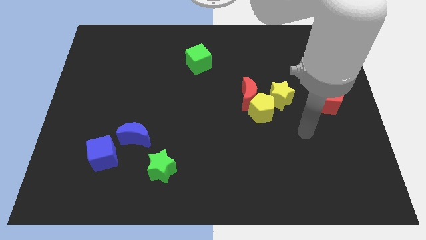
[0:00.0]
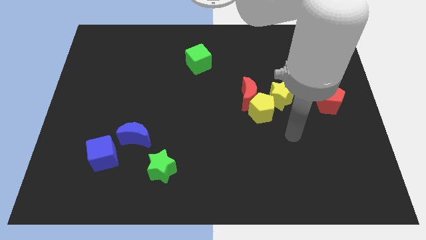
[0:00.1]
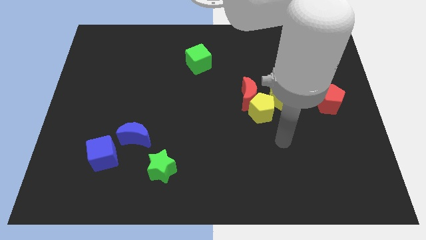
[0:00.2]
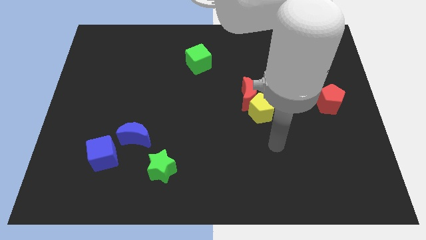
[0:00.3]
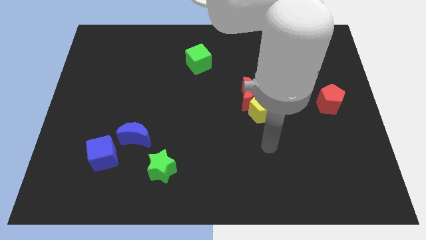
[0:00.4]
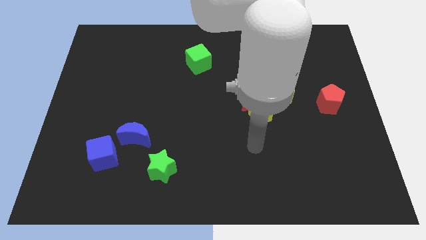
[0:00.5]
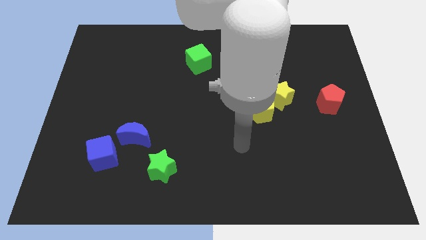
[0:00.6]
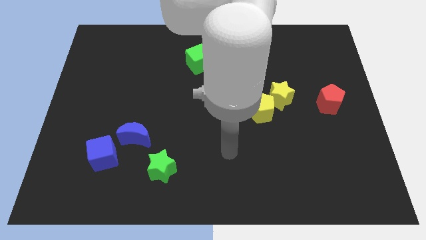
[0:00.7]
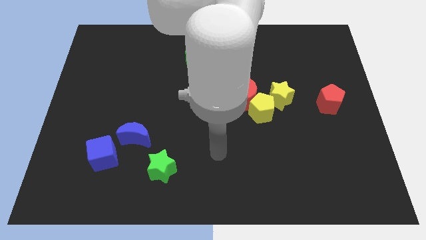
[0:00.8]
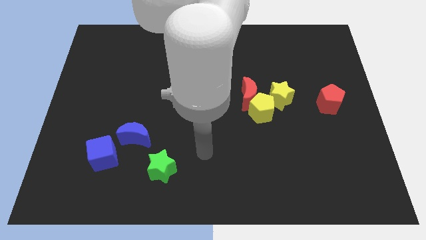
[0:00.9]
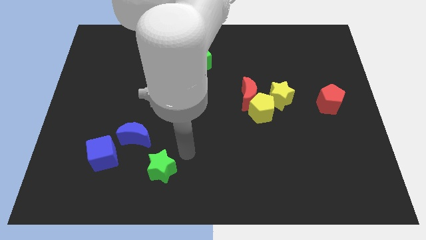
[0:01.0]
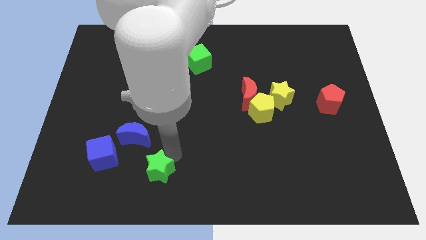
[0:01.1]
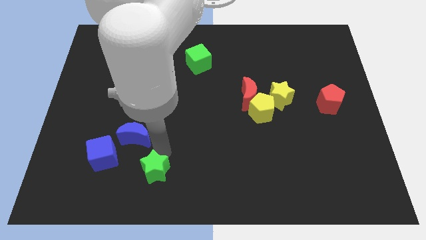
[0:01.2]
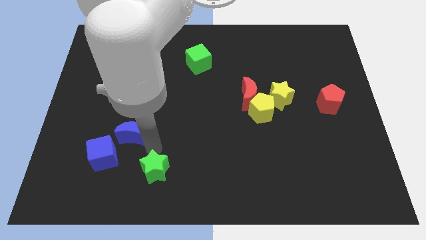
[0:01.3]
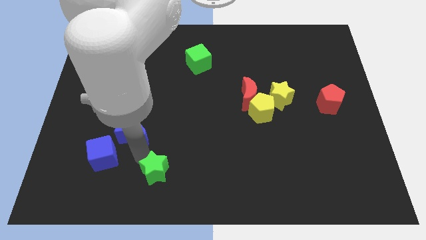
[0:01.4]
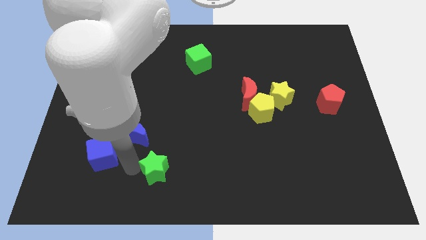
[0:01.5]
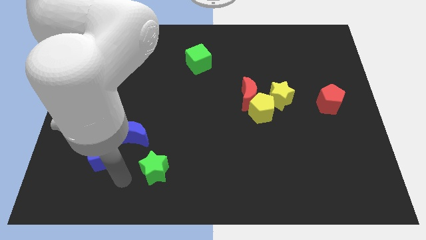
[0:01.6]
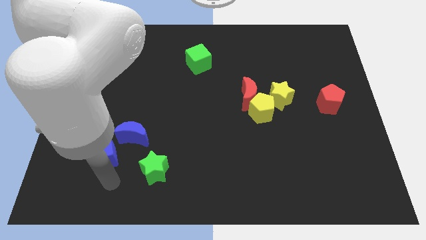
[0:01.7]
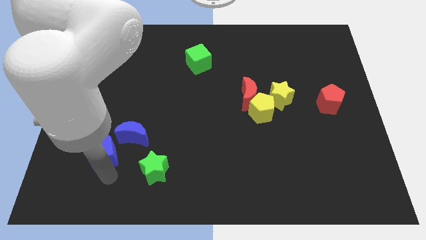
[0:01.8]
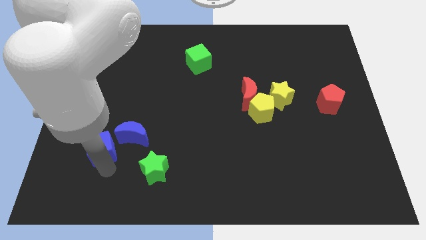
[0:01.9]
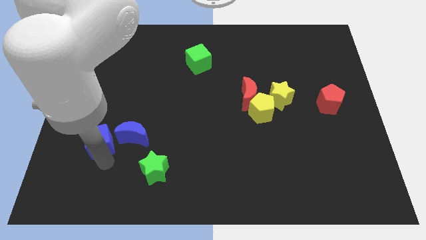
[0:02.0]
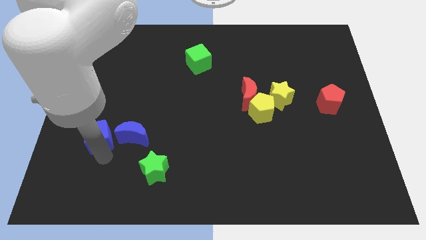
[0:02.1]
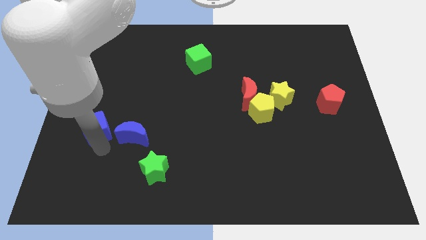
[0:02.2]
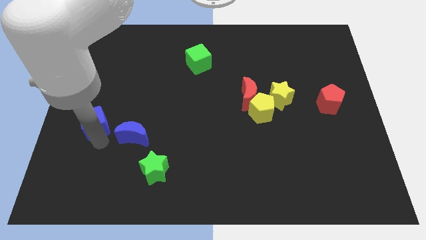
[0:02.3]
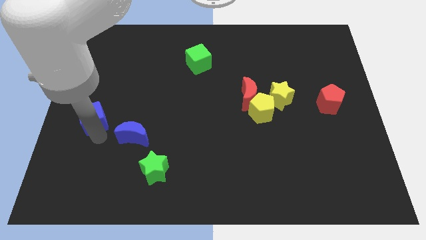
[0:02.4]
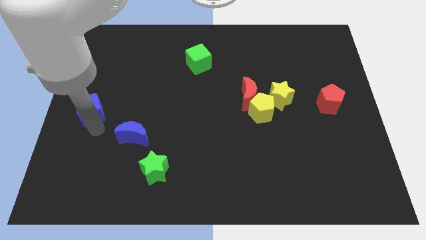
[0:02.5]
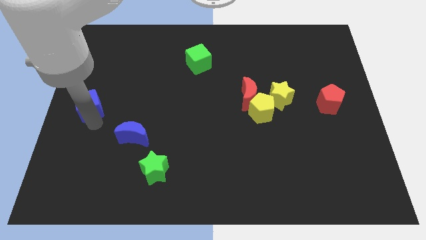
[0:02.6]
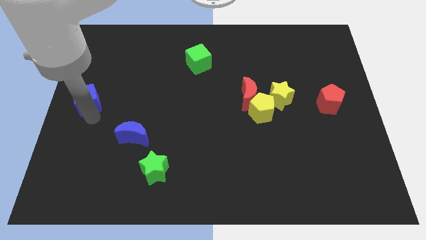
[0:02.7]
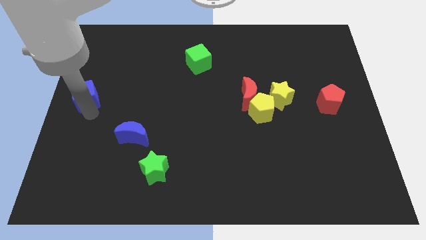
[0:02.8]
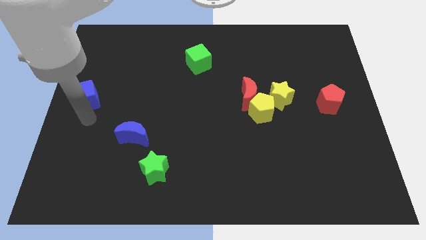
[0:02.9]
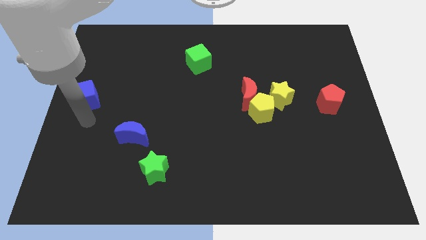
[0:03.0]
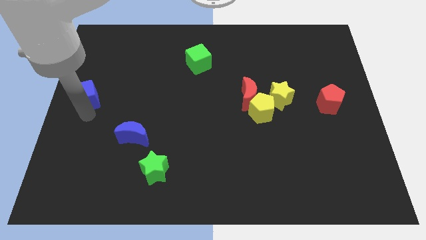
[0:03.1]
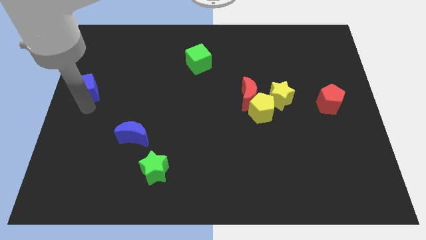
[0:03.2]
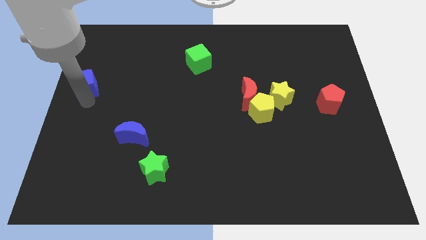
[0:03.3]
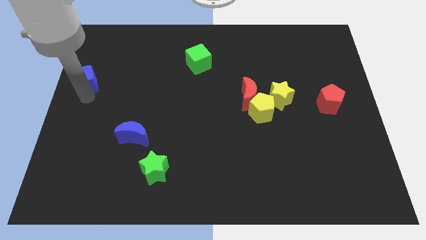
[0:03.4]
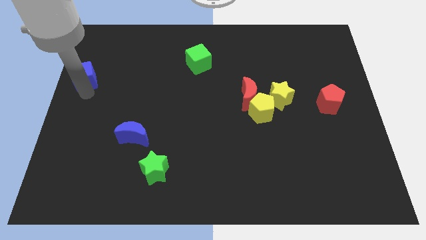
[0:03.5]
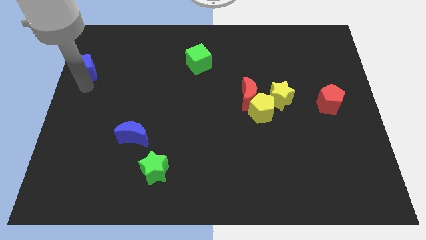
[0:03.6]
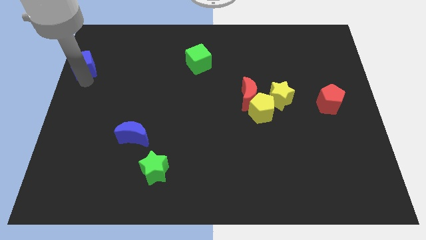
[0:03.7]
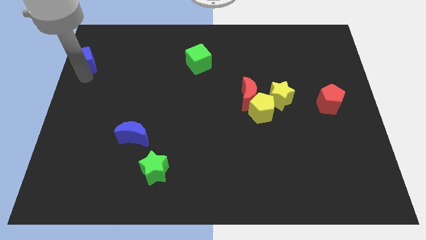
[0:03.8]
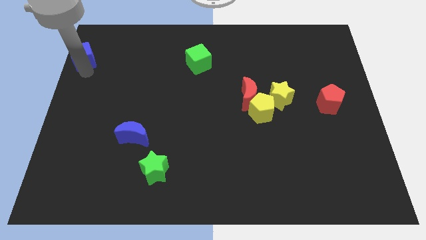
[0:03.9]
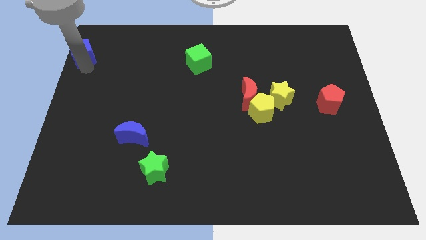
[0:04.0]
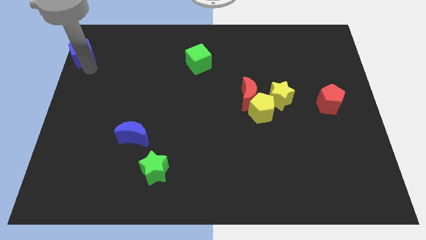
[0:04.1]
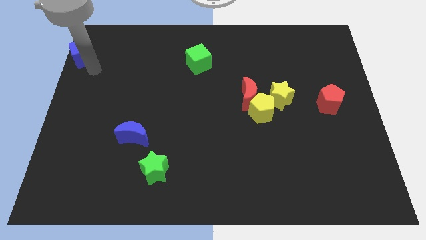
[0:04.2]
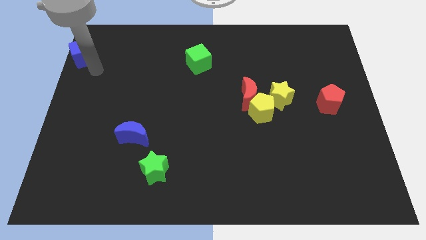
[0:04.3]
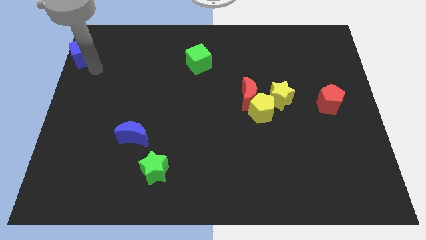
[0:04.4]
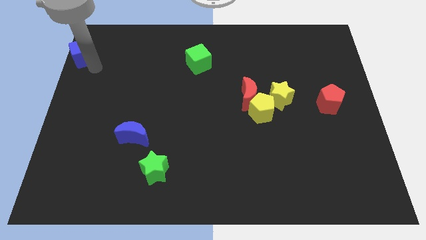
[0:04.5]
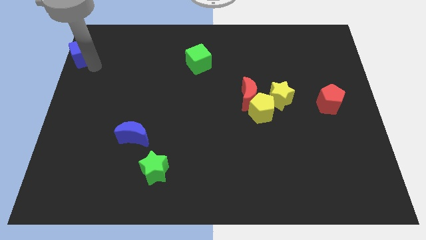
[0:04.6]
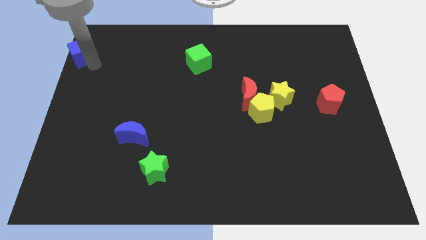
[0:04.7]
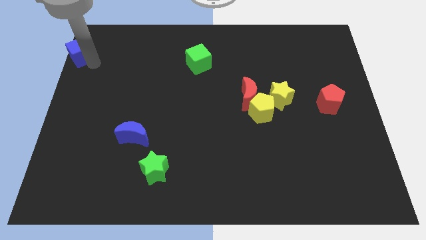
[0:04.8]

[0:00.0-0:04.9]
move the blue cube to the top left of the board

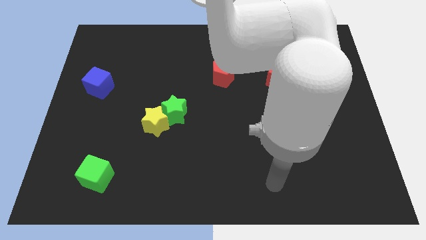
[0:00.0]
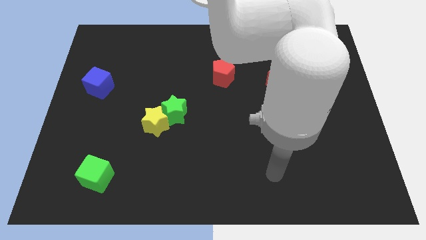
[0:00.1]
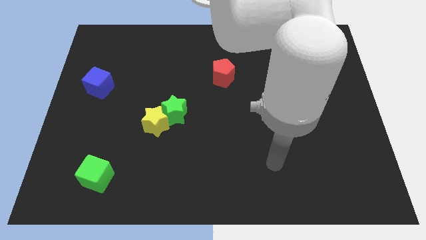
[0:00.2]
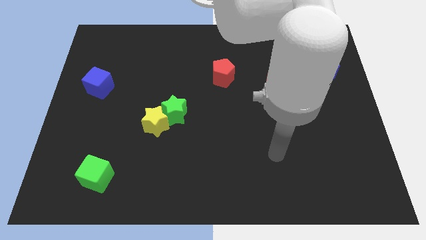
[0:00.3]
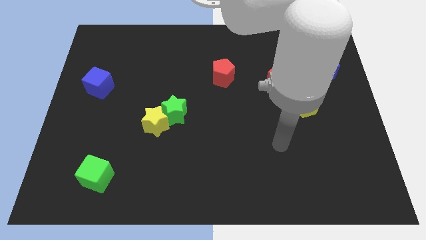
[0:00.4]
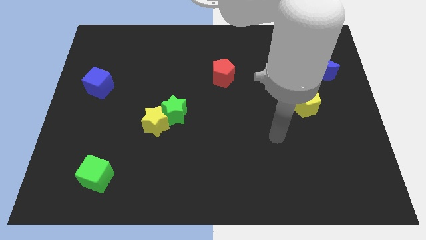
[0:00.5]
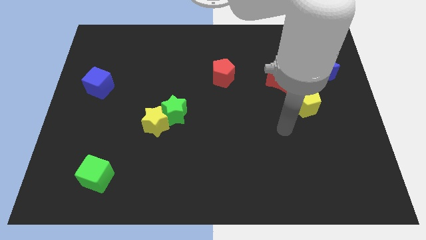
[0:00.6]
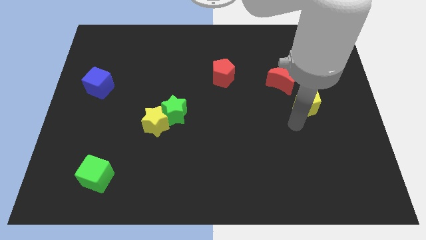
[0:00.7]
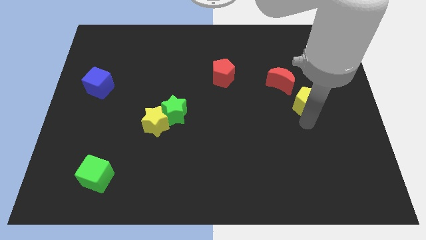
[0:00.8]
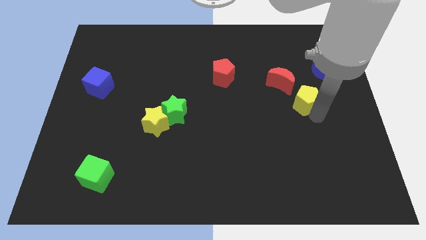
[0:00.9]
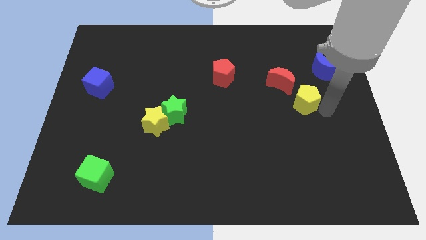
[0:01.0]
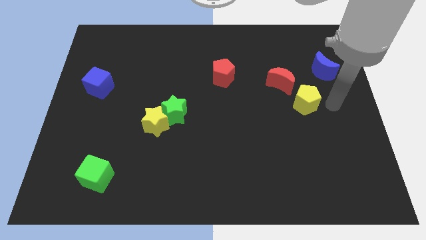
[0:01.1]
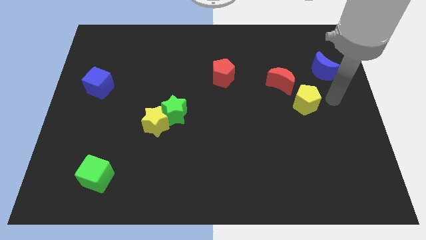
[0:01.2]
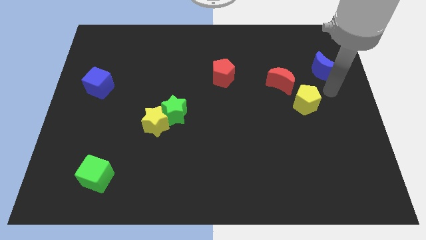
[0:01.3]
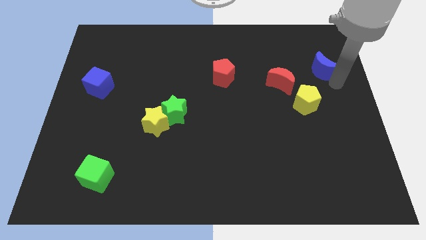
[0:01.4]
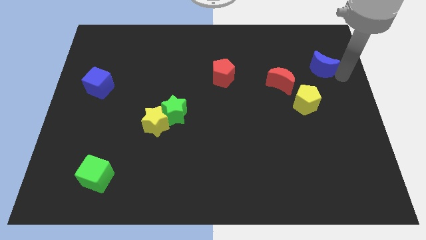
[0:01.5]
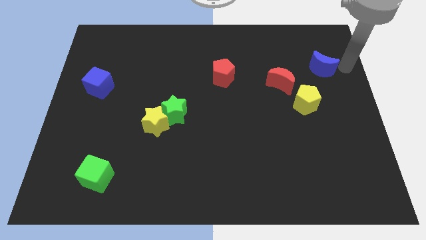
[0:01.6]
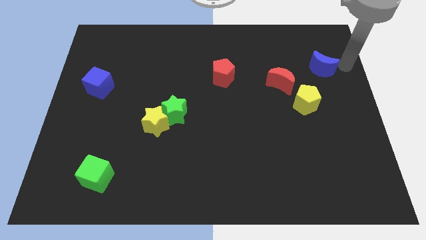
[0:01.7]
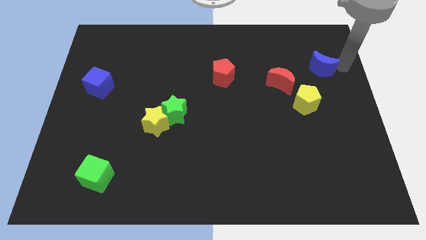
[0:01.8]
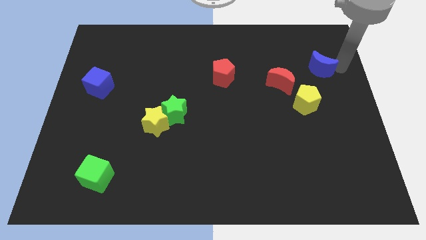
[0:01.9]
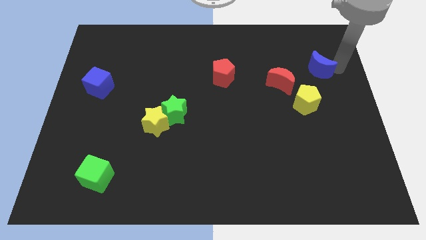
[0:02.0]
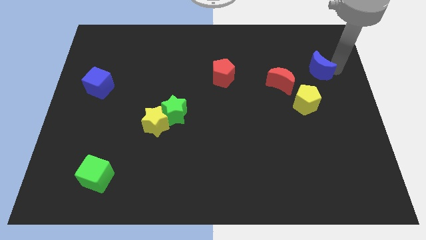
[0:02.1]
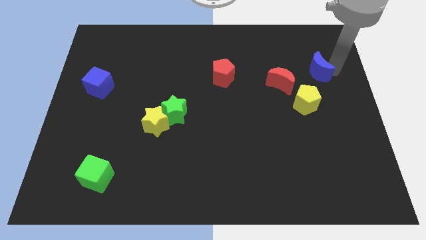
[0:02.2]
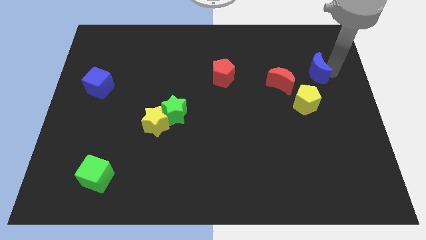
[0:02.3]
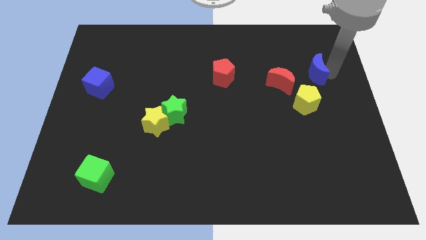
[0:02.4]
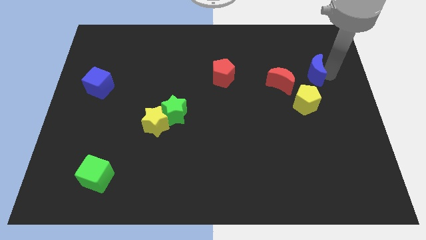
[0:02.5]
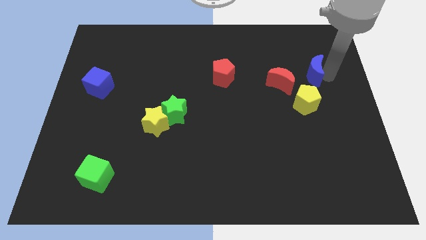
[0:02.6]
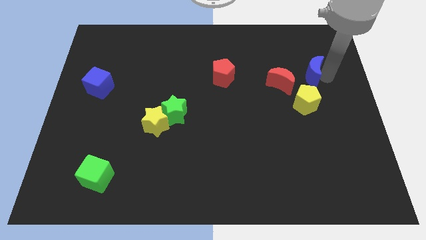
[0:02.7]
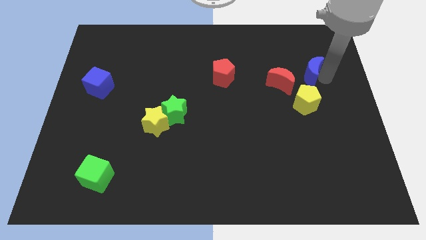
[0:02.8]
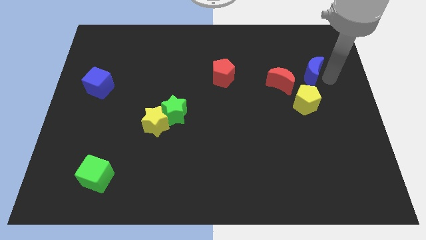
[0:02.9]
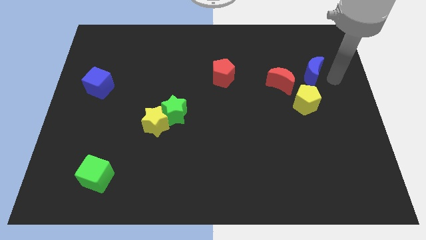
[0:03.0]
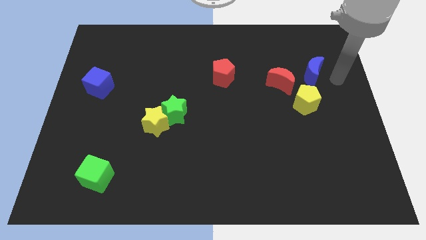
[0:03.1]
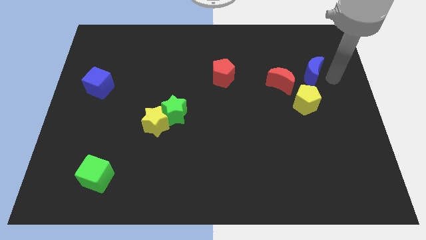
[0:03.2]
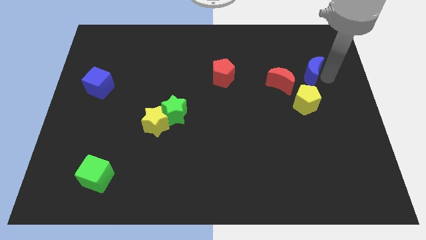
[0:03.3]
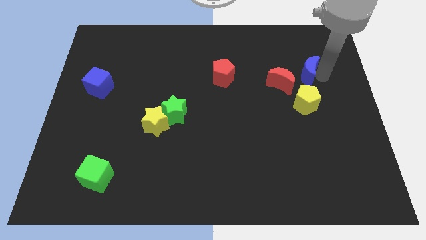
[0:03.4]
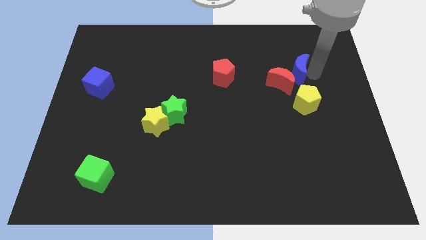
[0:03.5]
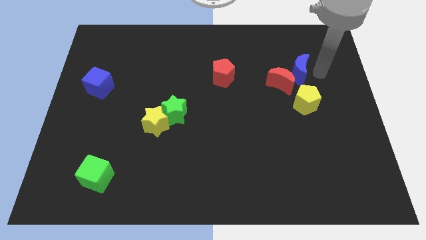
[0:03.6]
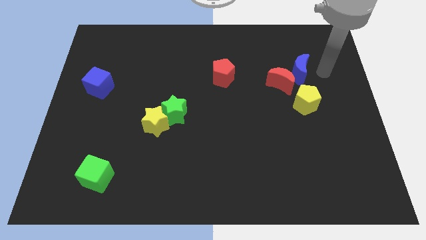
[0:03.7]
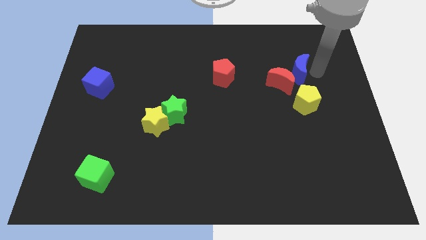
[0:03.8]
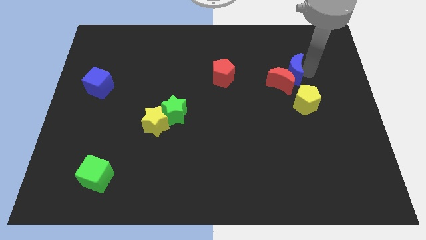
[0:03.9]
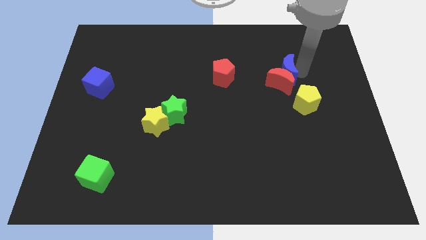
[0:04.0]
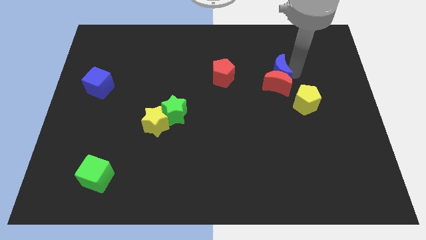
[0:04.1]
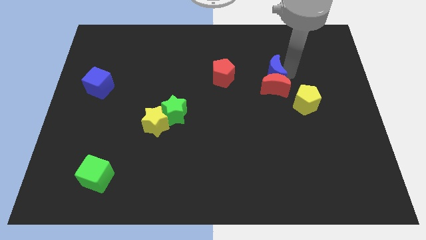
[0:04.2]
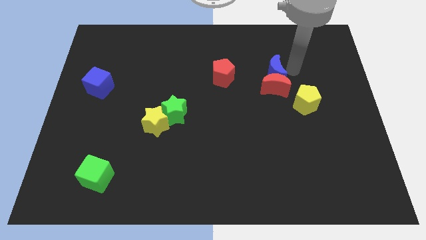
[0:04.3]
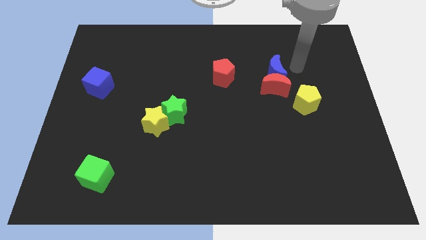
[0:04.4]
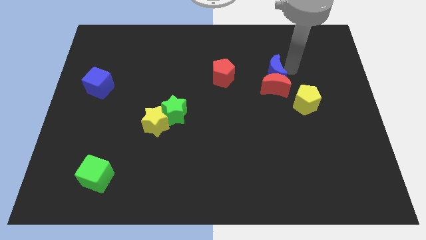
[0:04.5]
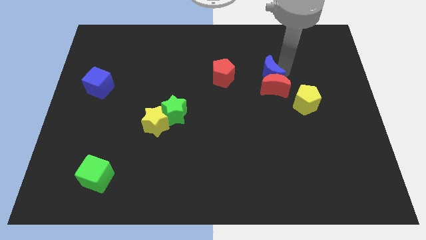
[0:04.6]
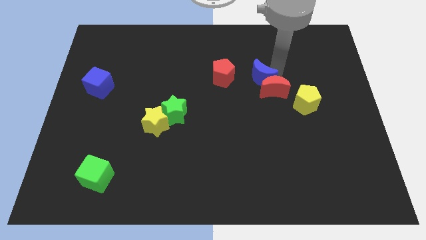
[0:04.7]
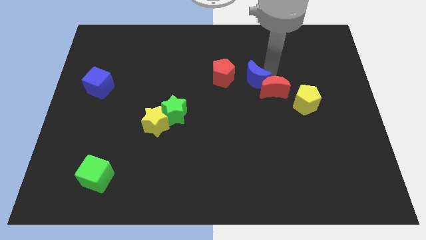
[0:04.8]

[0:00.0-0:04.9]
slide the blue moon to the middle of the board
